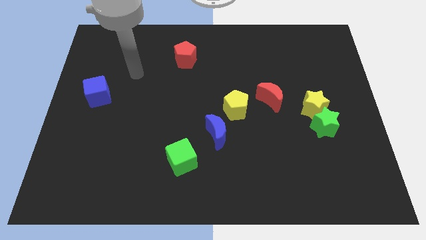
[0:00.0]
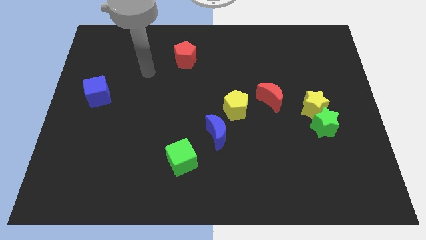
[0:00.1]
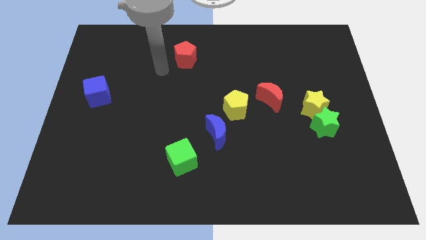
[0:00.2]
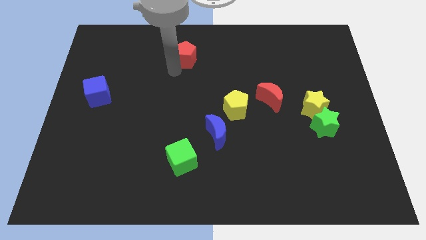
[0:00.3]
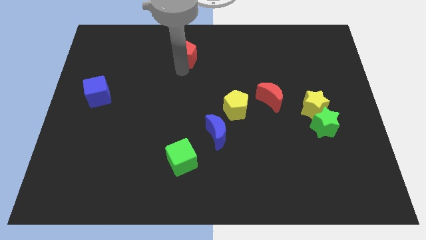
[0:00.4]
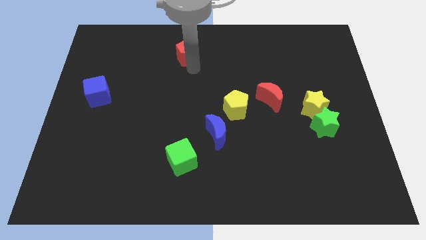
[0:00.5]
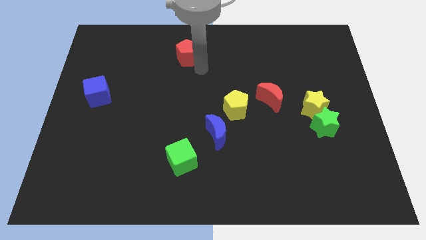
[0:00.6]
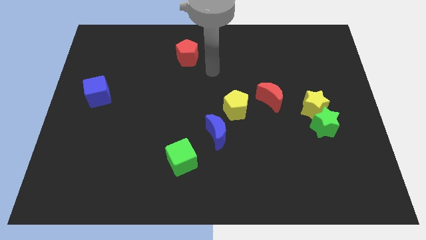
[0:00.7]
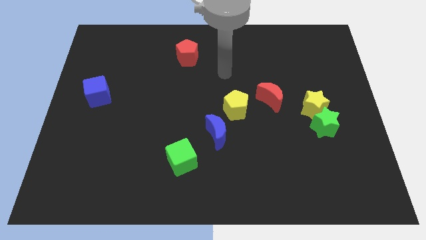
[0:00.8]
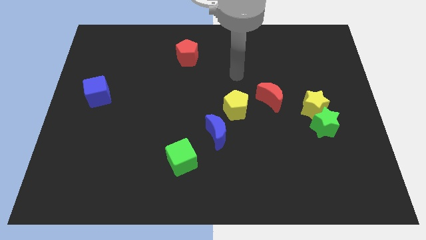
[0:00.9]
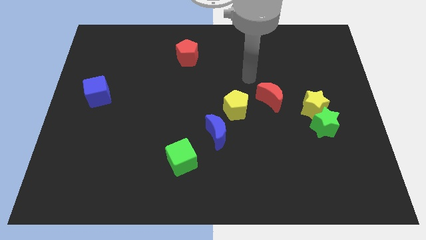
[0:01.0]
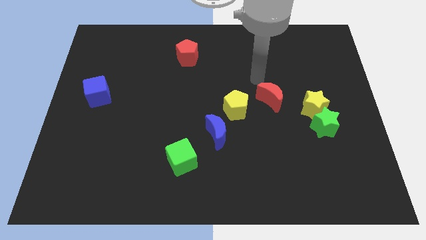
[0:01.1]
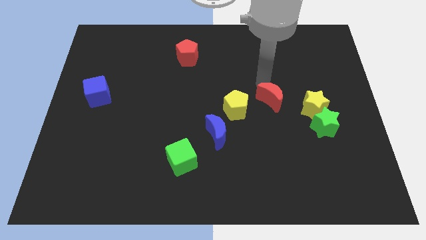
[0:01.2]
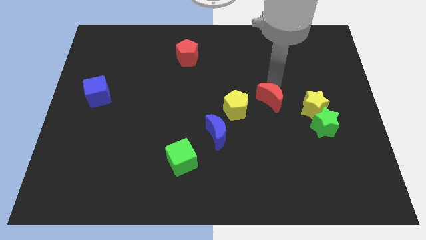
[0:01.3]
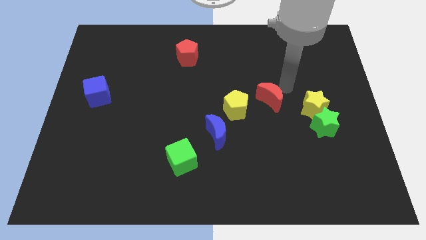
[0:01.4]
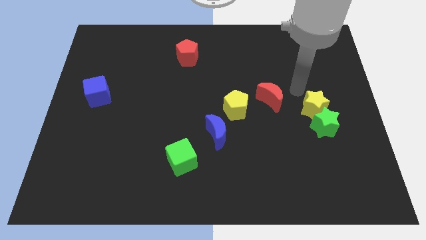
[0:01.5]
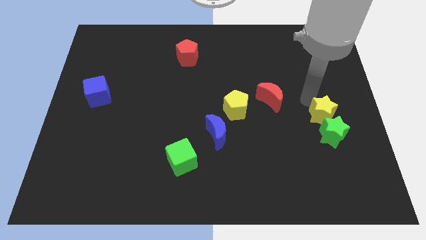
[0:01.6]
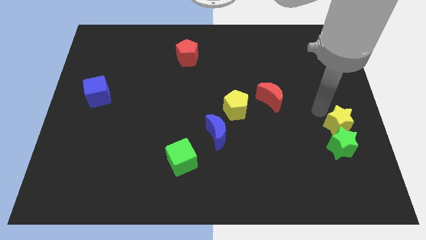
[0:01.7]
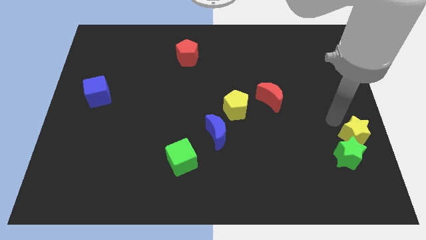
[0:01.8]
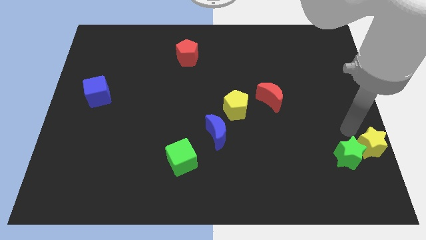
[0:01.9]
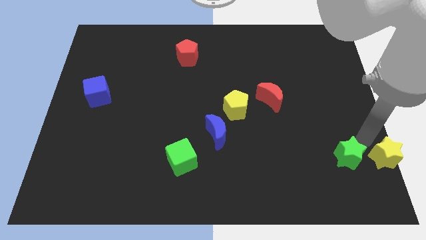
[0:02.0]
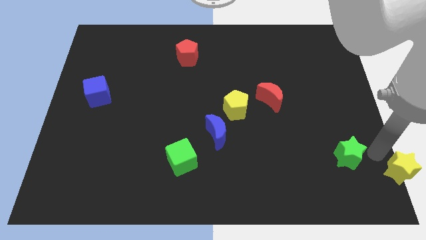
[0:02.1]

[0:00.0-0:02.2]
move the green star away from the yellow star

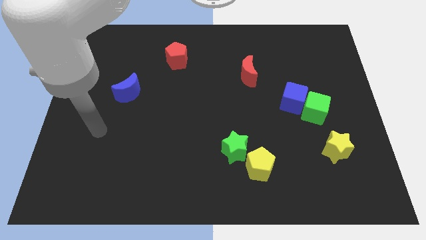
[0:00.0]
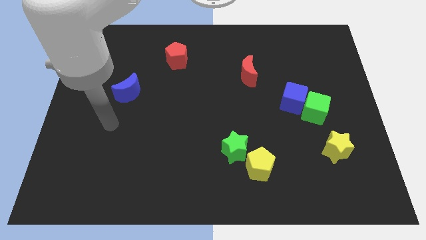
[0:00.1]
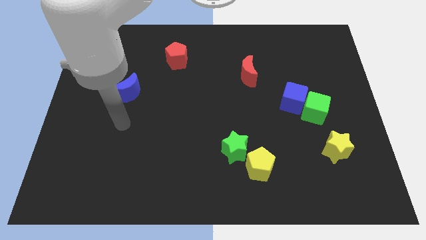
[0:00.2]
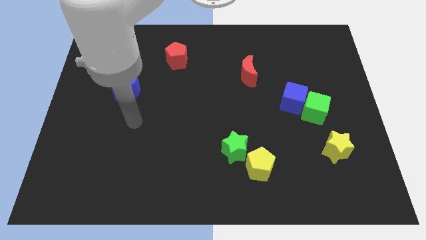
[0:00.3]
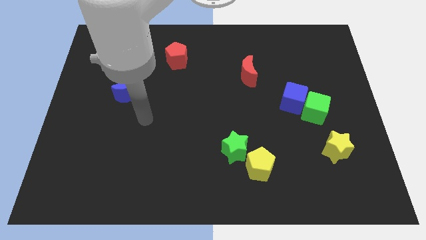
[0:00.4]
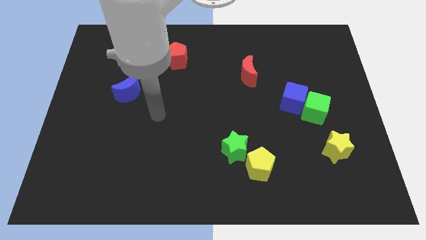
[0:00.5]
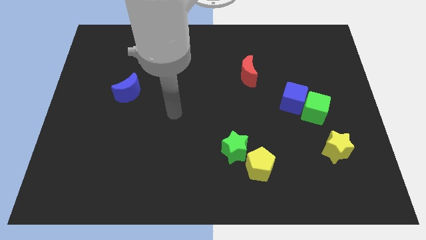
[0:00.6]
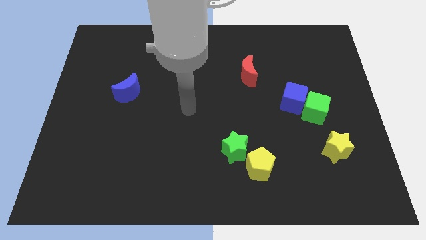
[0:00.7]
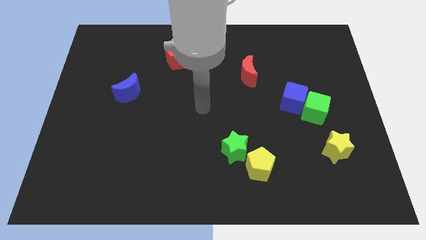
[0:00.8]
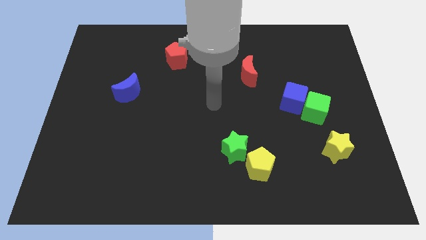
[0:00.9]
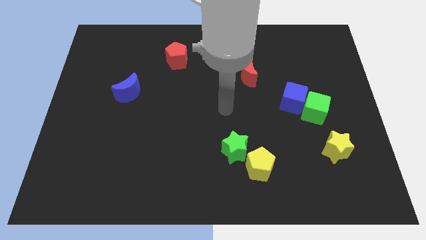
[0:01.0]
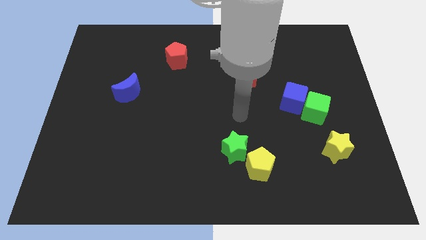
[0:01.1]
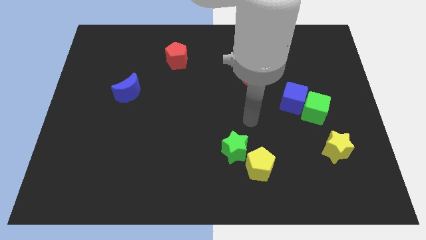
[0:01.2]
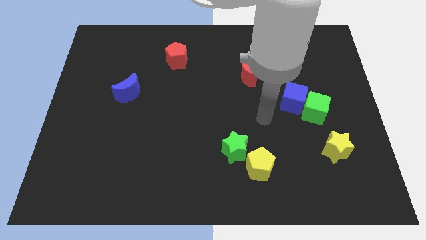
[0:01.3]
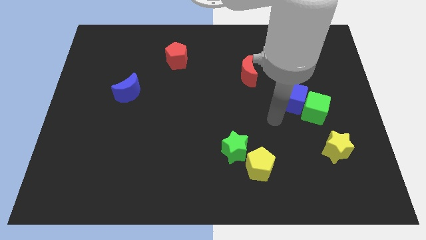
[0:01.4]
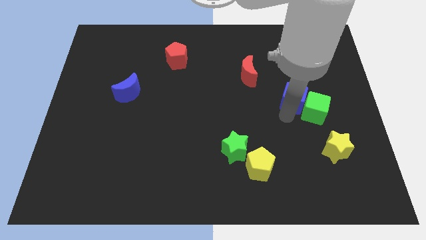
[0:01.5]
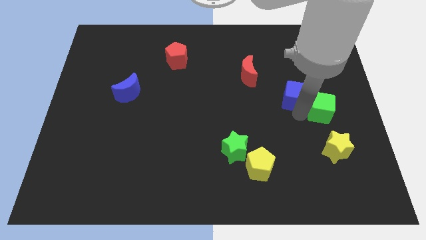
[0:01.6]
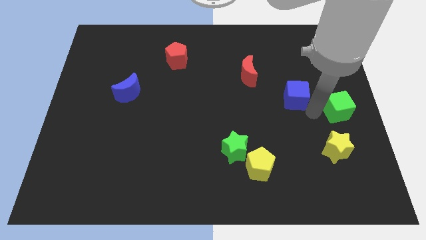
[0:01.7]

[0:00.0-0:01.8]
separate the blue cube from the green cube

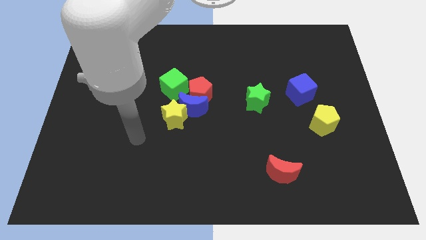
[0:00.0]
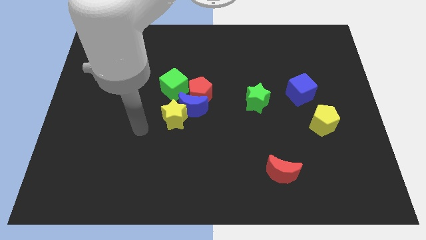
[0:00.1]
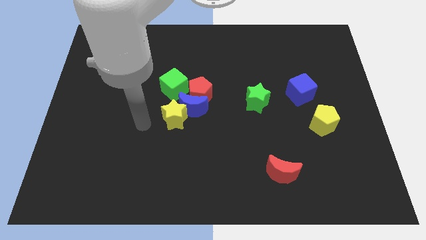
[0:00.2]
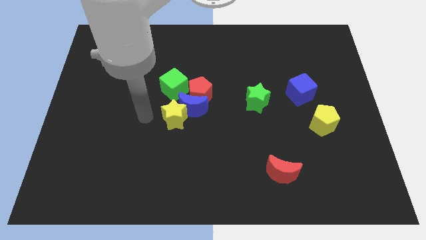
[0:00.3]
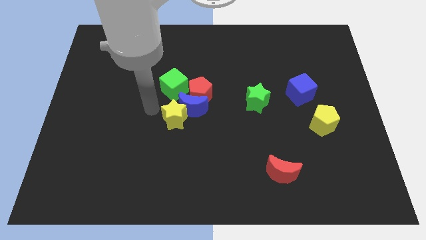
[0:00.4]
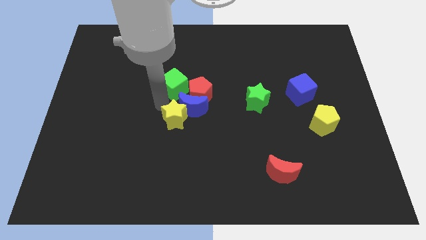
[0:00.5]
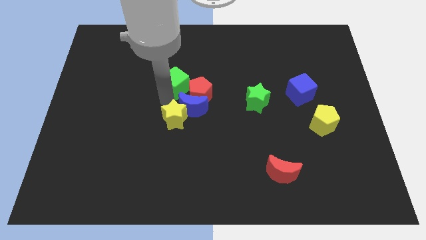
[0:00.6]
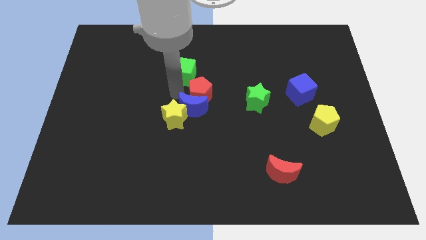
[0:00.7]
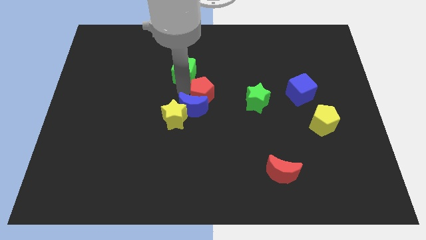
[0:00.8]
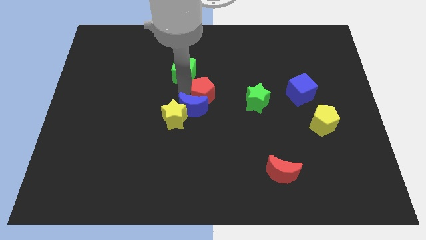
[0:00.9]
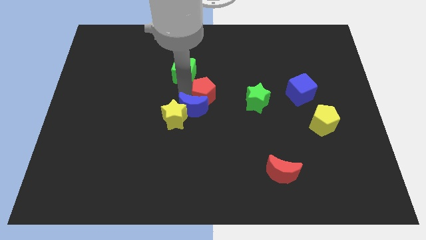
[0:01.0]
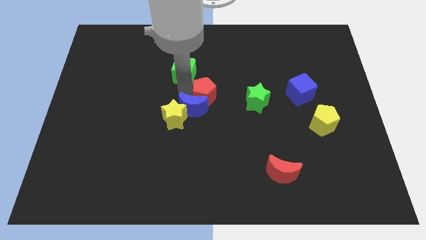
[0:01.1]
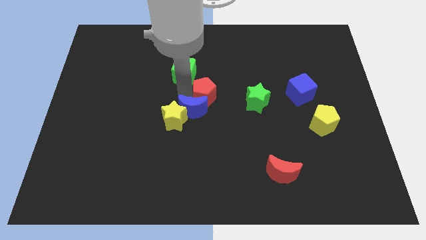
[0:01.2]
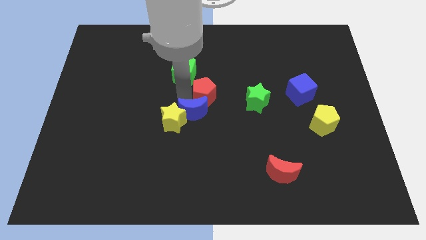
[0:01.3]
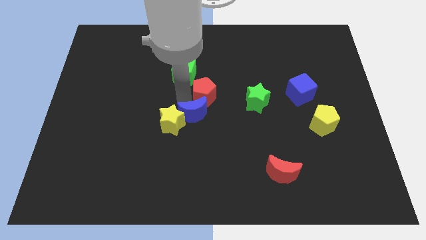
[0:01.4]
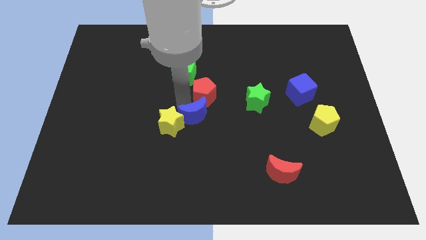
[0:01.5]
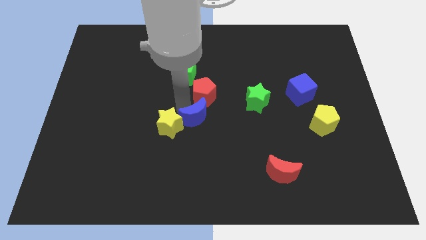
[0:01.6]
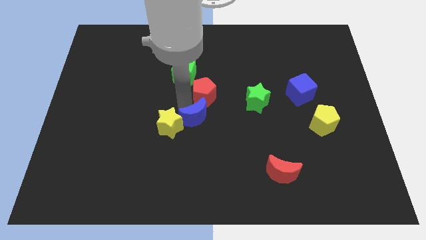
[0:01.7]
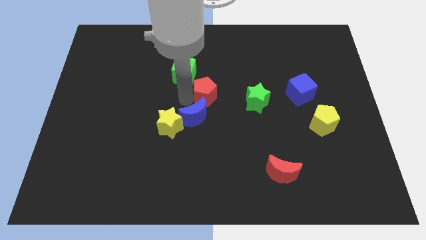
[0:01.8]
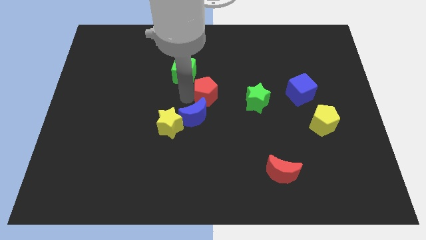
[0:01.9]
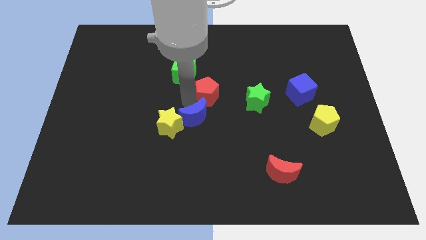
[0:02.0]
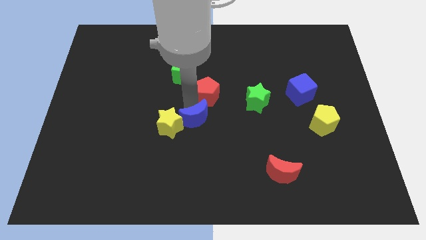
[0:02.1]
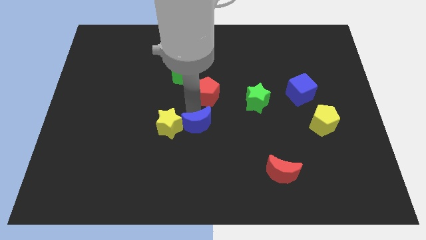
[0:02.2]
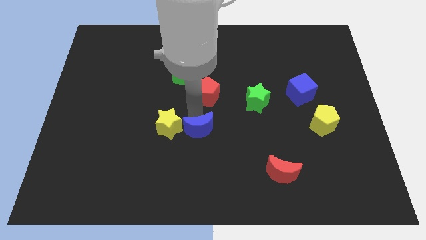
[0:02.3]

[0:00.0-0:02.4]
separate the blue moon from the red pentagon, yellow star, and green cube

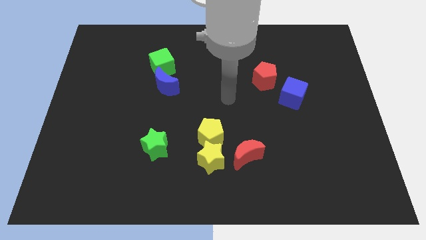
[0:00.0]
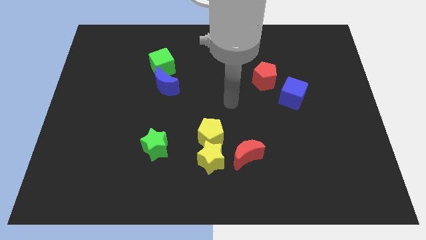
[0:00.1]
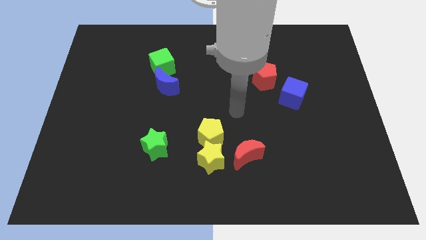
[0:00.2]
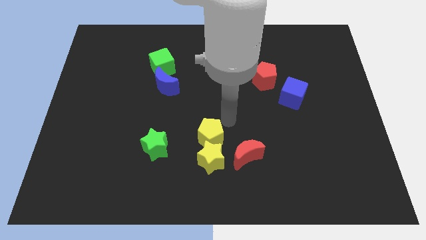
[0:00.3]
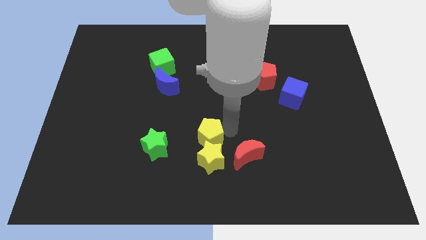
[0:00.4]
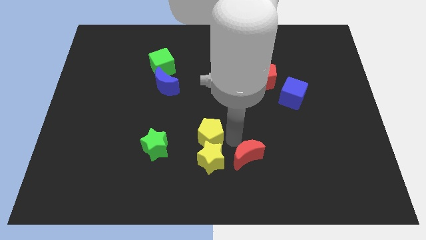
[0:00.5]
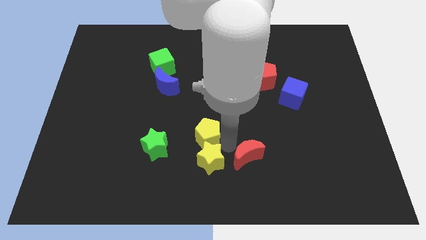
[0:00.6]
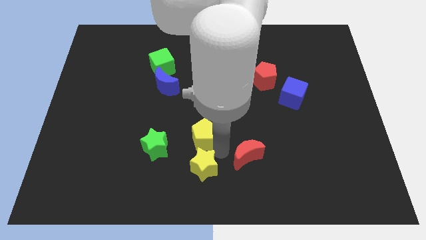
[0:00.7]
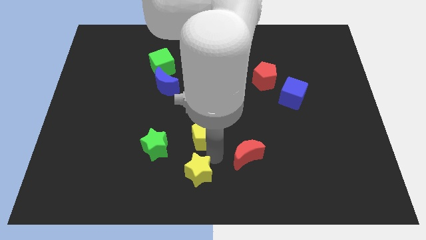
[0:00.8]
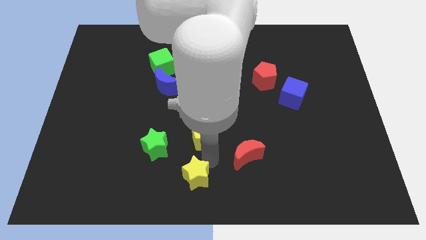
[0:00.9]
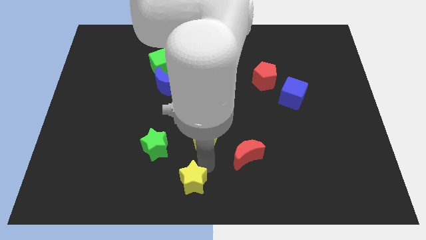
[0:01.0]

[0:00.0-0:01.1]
pull the yellow star apart from the yellow pentagon and red moon

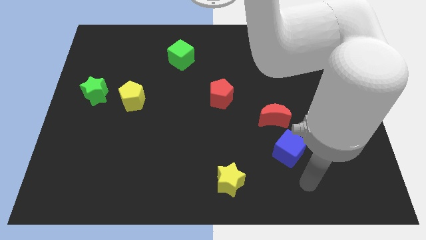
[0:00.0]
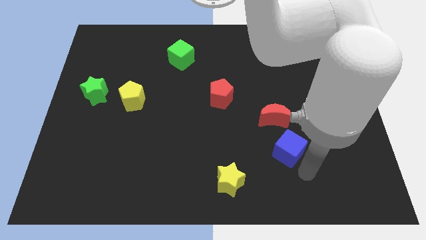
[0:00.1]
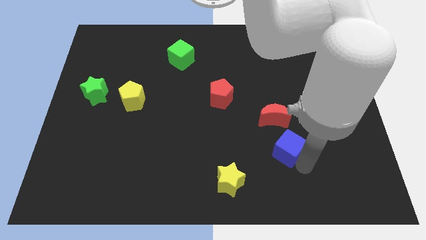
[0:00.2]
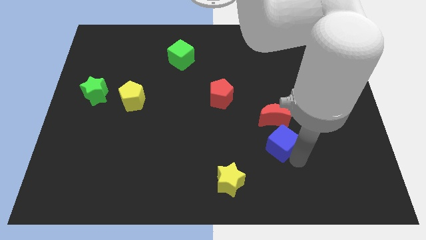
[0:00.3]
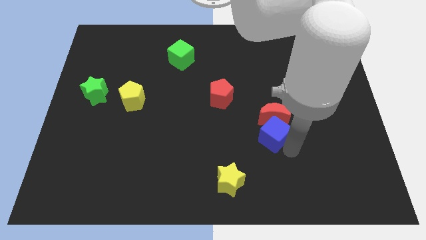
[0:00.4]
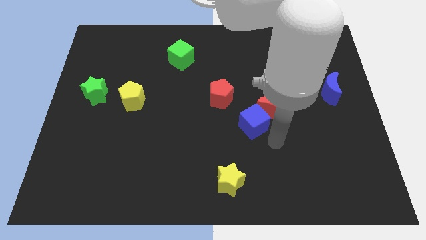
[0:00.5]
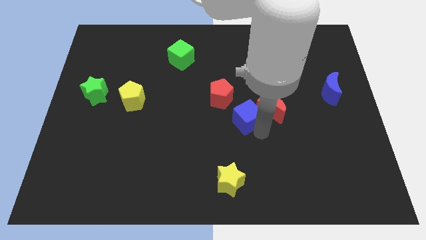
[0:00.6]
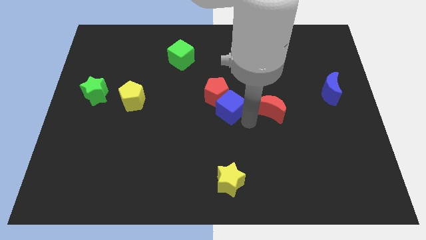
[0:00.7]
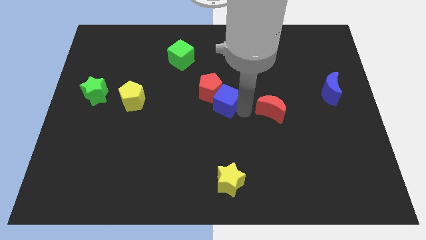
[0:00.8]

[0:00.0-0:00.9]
move the red moon away from the blue cube

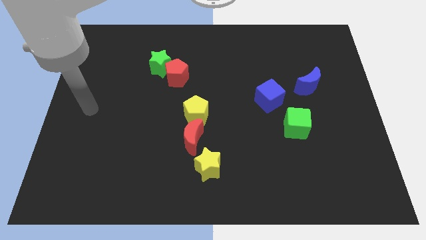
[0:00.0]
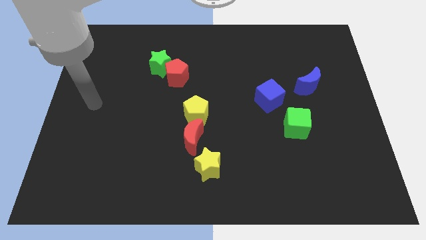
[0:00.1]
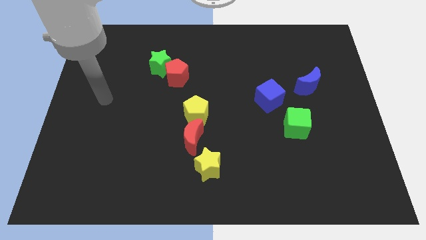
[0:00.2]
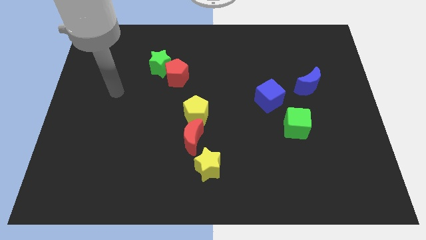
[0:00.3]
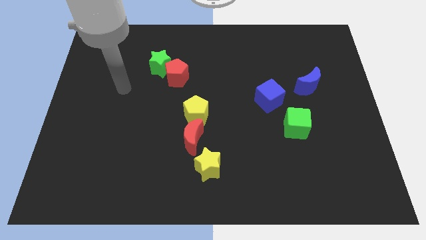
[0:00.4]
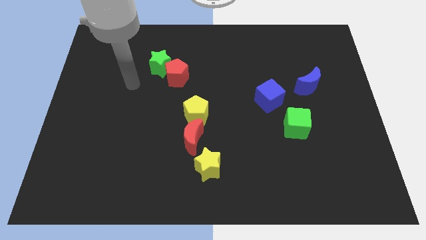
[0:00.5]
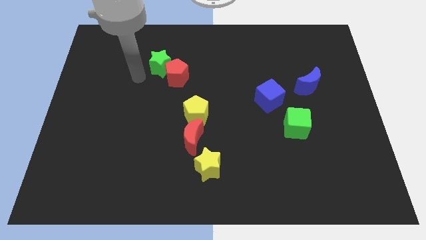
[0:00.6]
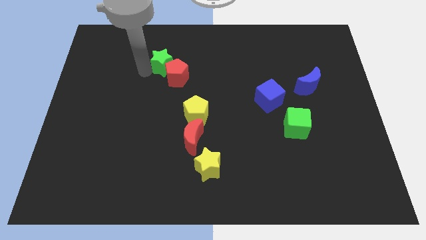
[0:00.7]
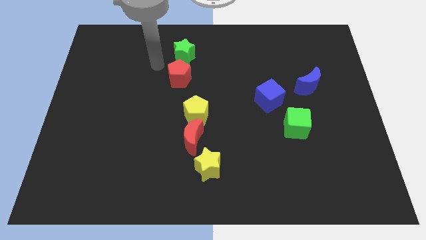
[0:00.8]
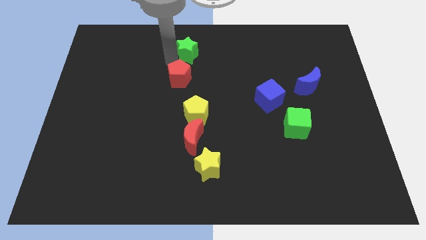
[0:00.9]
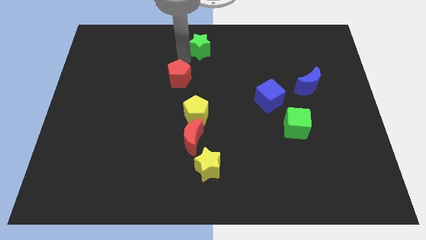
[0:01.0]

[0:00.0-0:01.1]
separate the red pentagon from the green star
